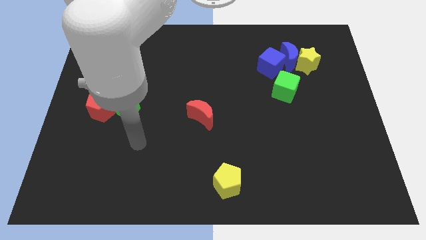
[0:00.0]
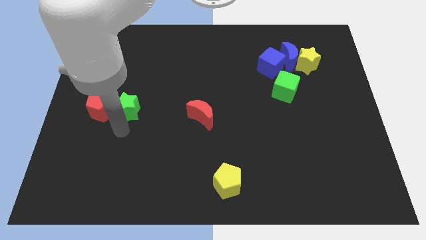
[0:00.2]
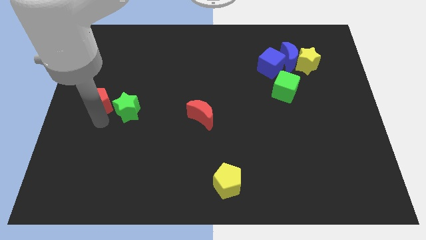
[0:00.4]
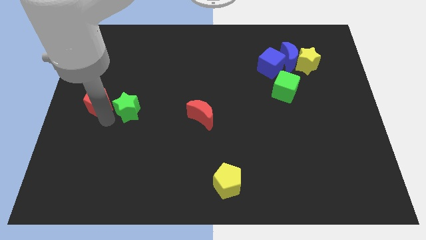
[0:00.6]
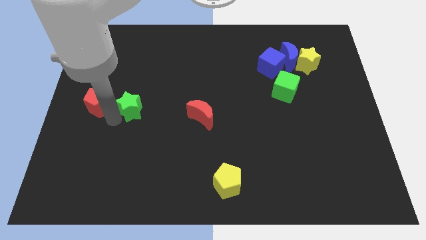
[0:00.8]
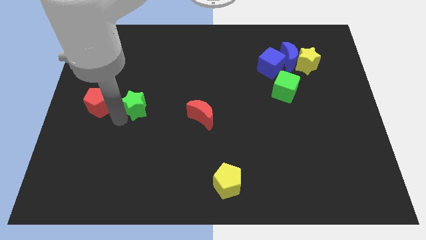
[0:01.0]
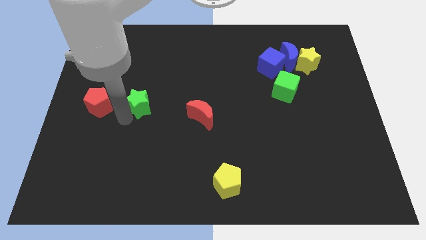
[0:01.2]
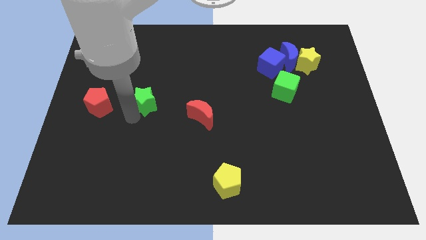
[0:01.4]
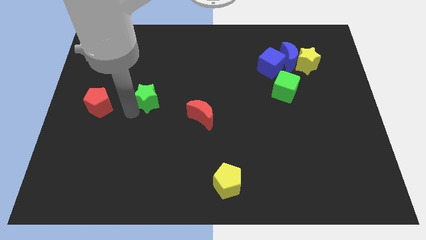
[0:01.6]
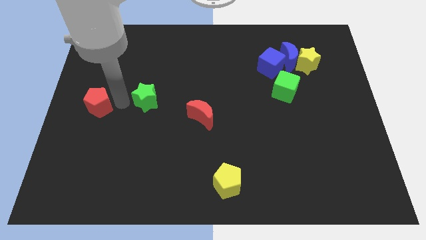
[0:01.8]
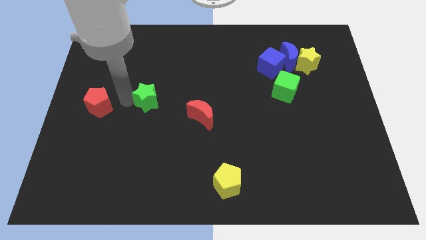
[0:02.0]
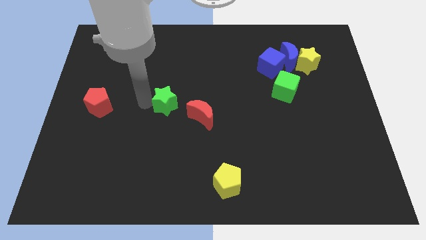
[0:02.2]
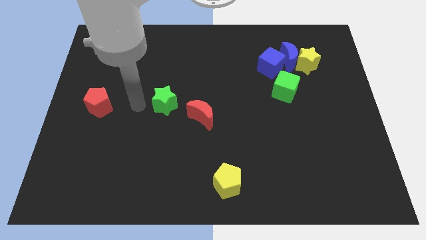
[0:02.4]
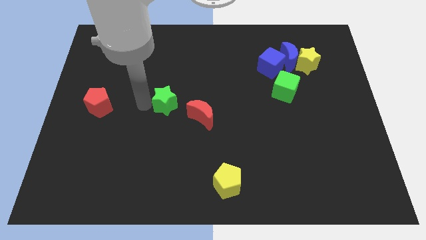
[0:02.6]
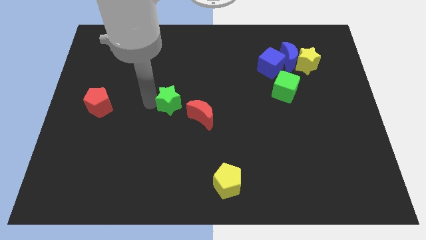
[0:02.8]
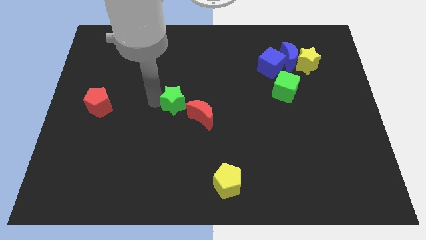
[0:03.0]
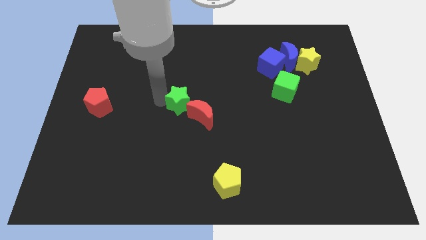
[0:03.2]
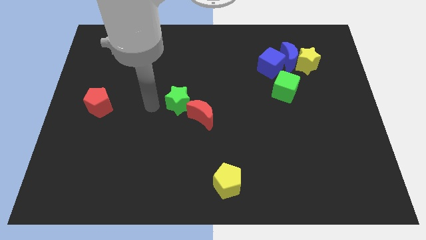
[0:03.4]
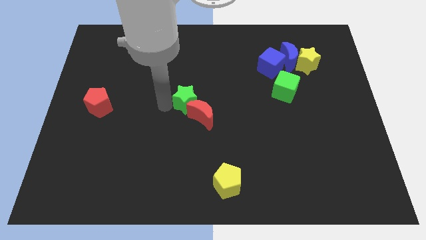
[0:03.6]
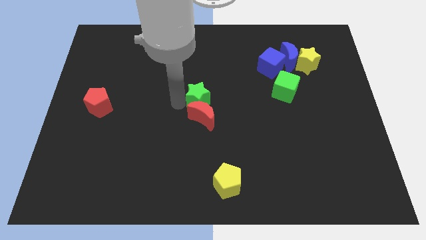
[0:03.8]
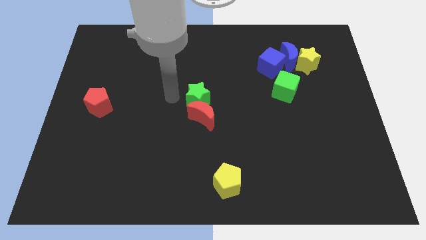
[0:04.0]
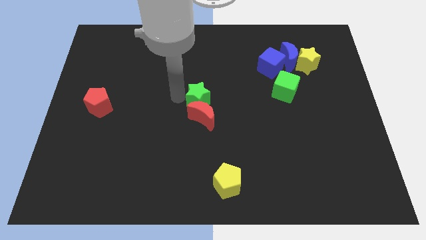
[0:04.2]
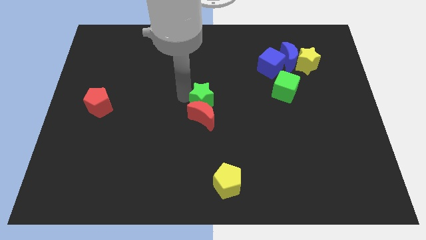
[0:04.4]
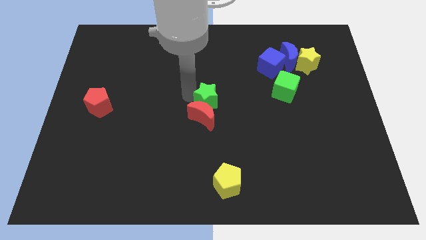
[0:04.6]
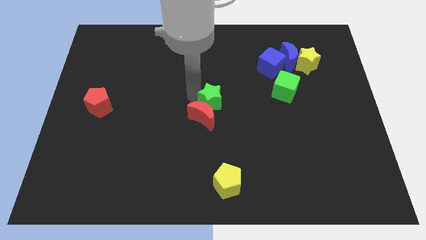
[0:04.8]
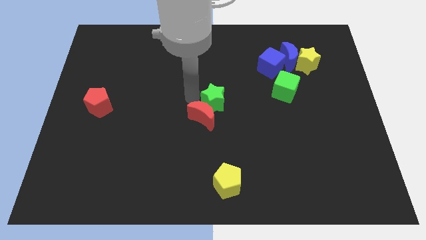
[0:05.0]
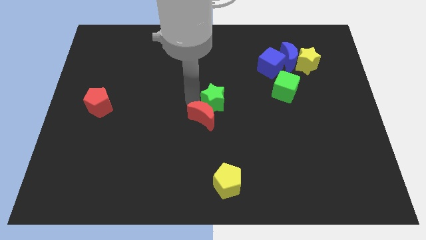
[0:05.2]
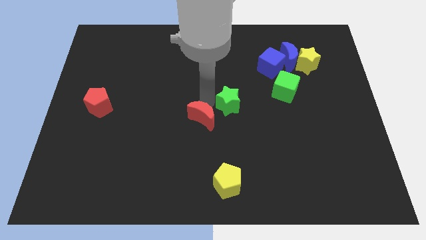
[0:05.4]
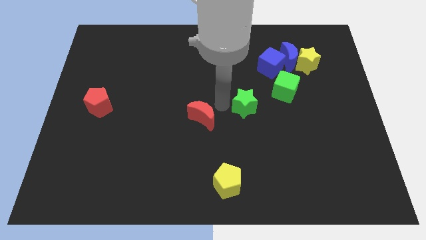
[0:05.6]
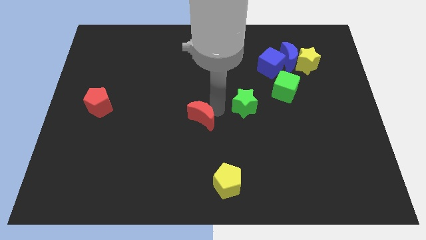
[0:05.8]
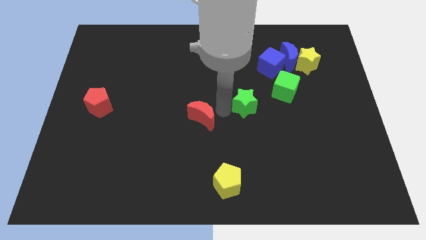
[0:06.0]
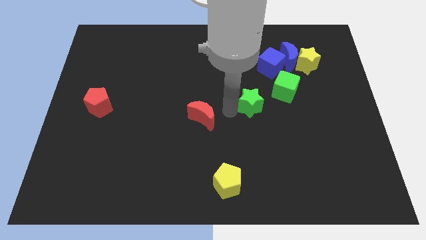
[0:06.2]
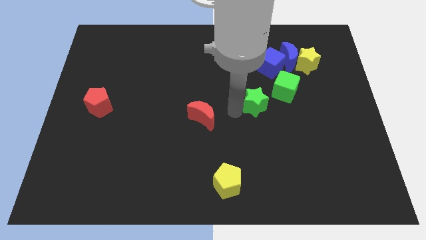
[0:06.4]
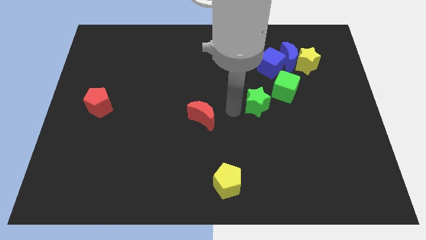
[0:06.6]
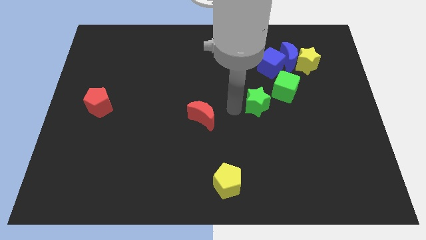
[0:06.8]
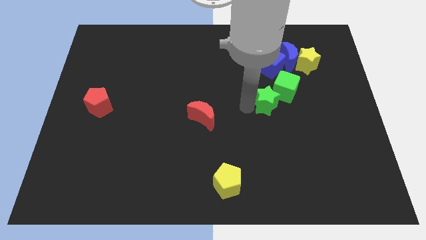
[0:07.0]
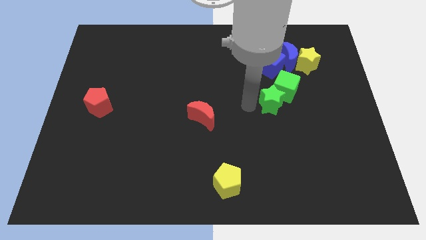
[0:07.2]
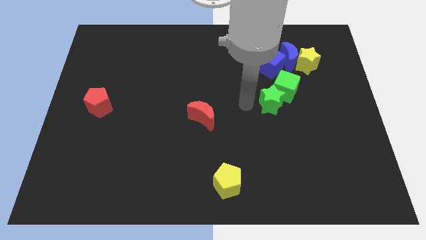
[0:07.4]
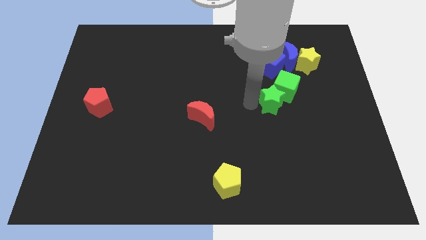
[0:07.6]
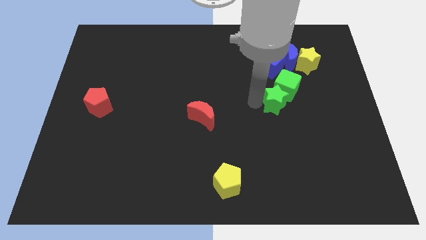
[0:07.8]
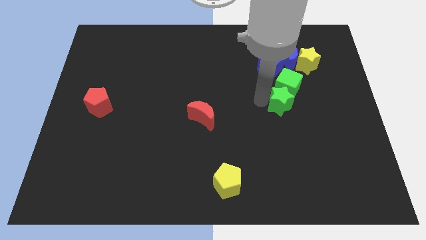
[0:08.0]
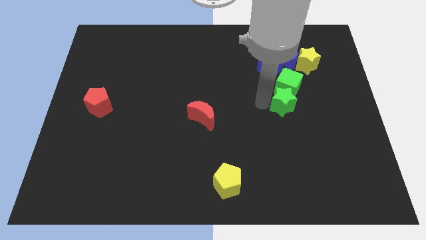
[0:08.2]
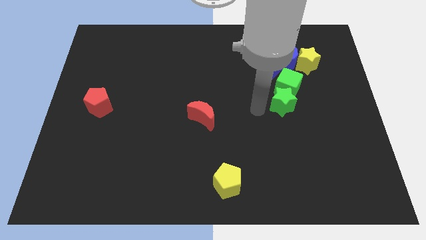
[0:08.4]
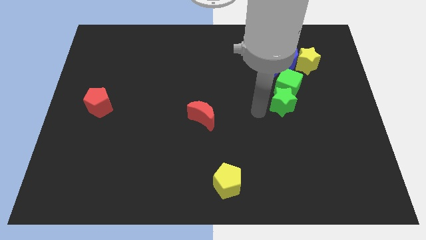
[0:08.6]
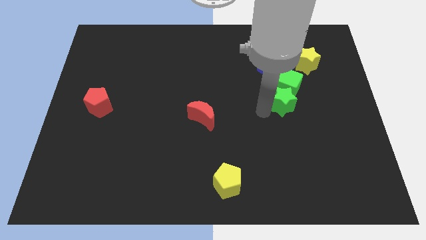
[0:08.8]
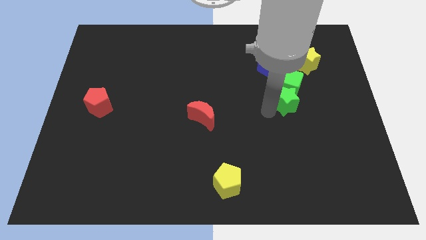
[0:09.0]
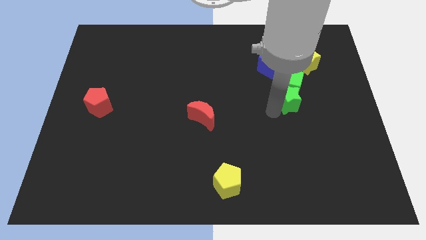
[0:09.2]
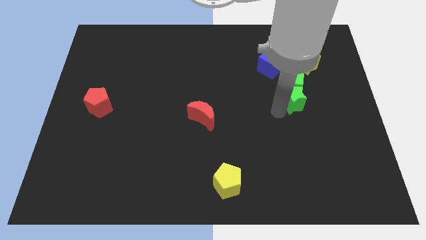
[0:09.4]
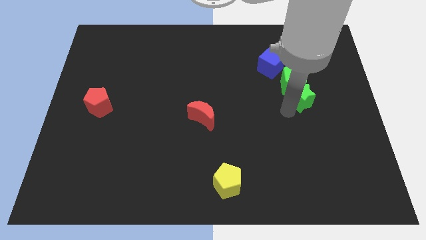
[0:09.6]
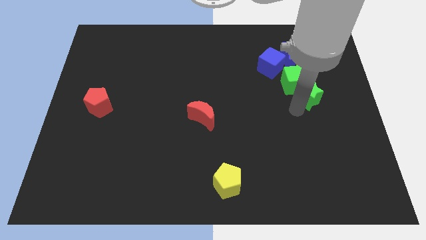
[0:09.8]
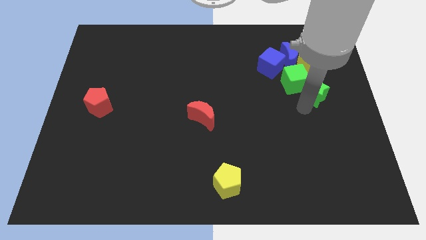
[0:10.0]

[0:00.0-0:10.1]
push the green star right of the green cube

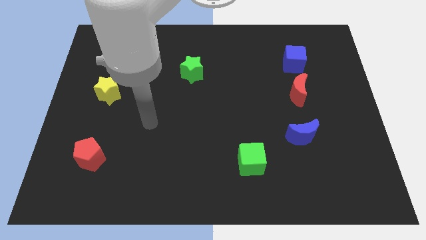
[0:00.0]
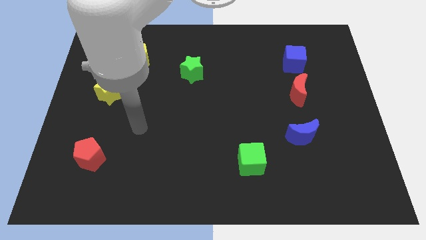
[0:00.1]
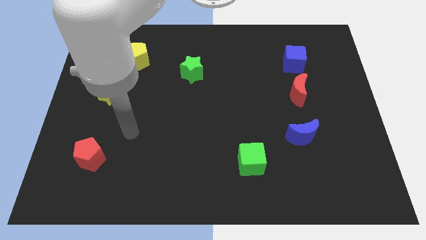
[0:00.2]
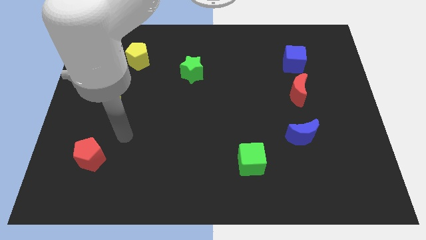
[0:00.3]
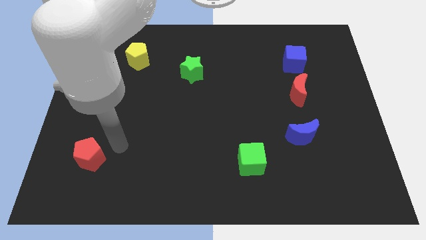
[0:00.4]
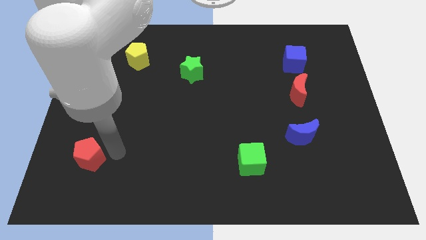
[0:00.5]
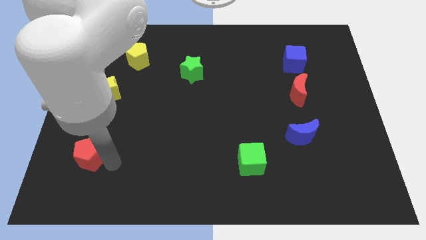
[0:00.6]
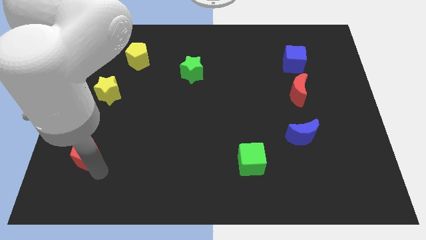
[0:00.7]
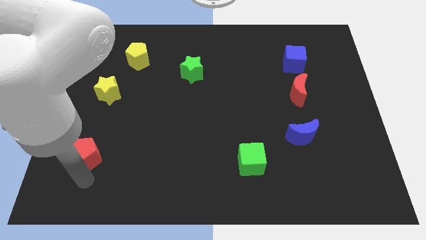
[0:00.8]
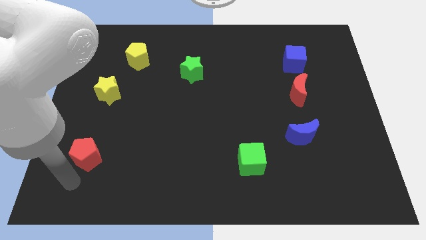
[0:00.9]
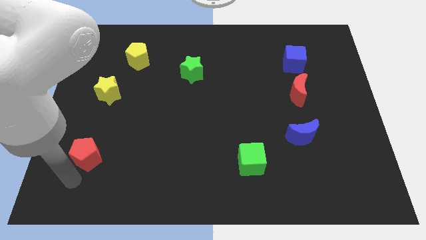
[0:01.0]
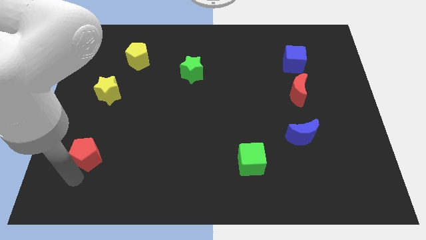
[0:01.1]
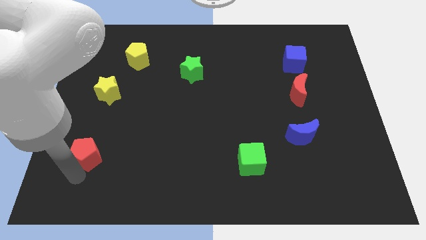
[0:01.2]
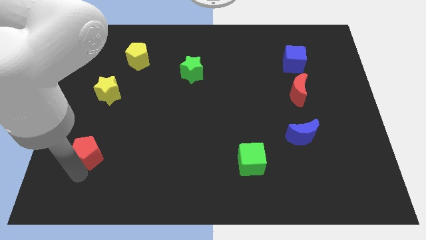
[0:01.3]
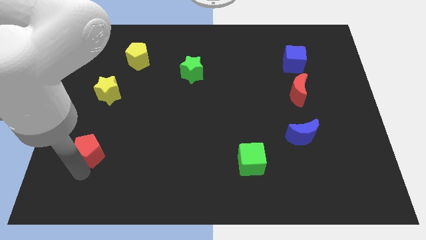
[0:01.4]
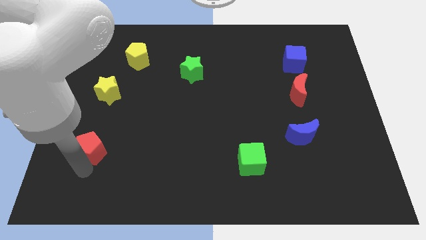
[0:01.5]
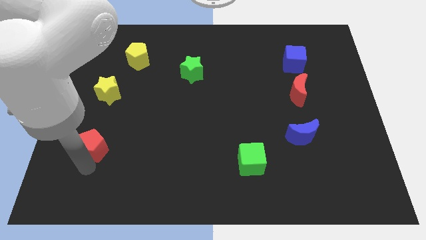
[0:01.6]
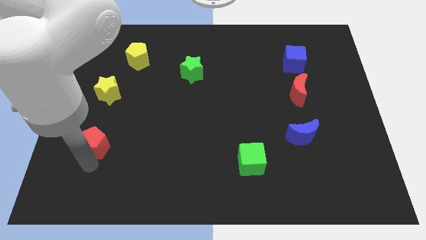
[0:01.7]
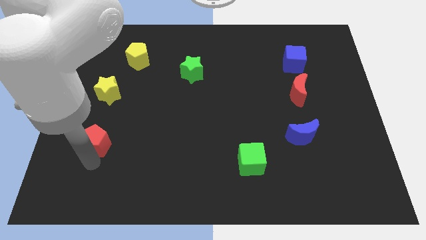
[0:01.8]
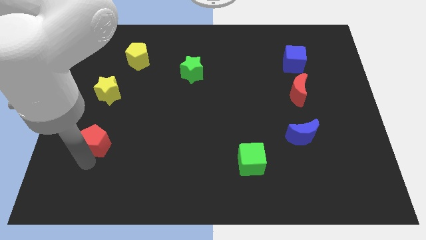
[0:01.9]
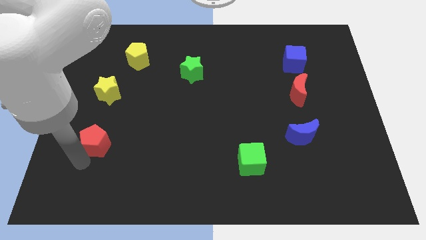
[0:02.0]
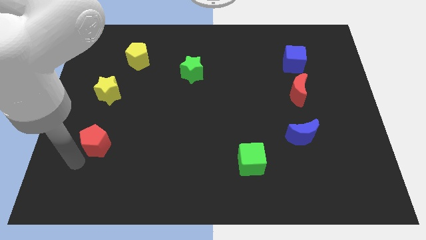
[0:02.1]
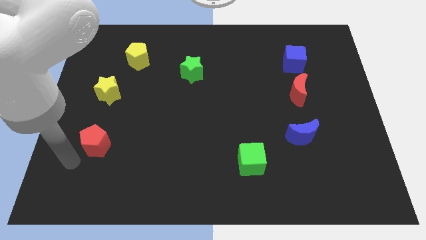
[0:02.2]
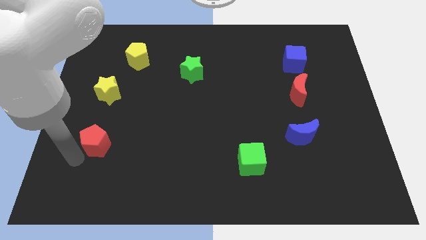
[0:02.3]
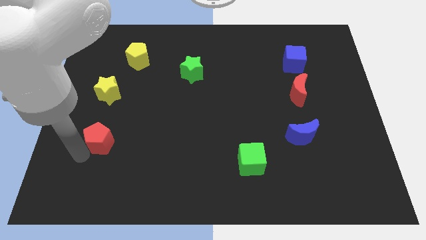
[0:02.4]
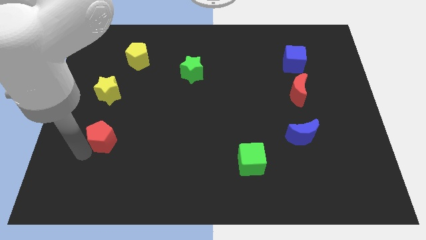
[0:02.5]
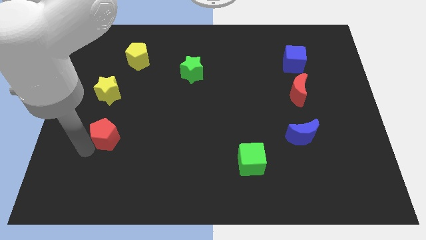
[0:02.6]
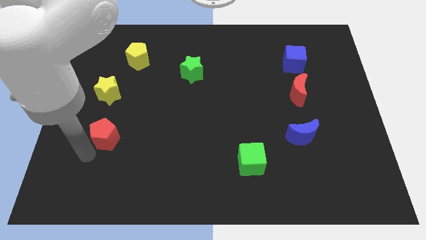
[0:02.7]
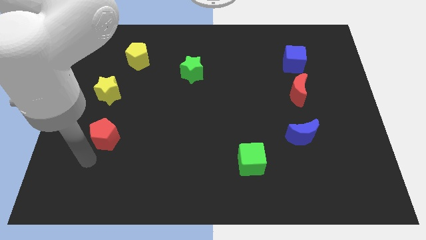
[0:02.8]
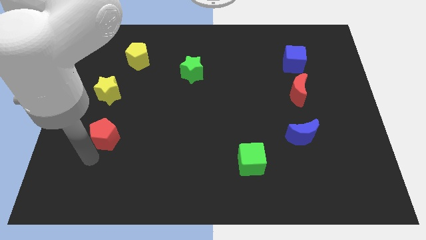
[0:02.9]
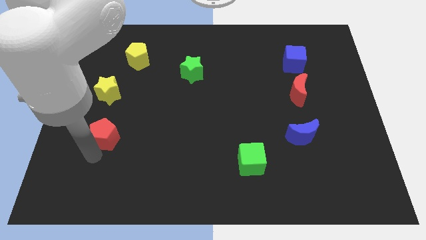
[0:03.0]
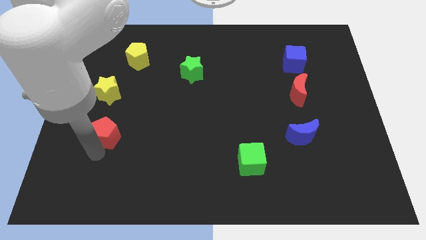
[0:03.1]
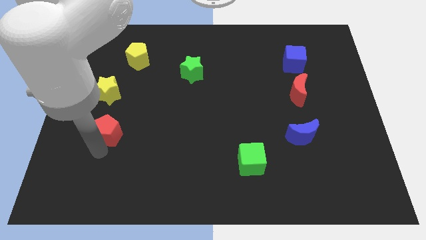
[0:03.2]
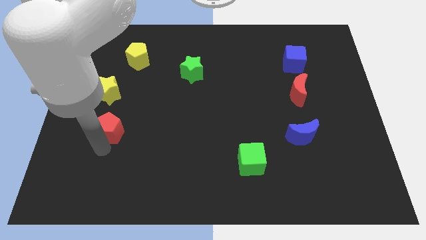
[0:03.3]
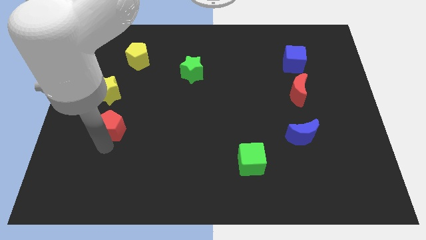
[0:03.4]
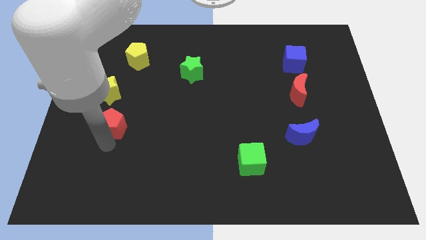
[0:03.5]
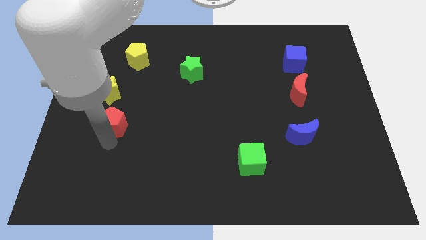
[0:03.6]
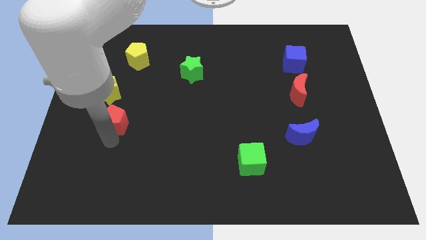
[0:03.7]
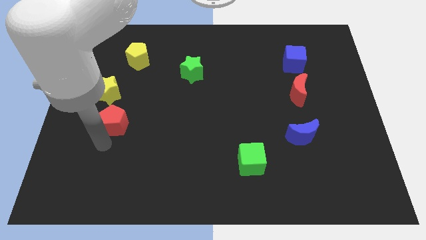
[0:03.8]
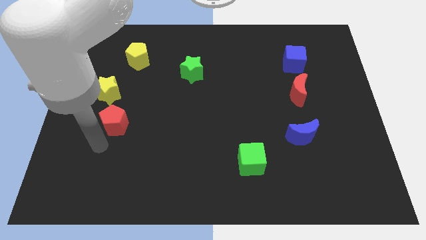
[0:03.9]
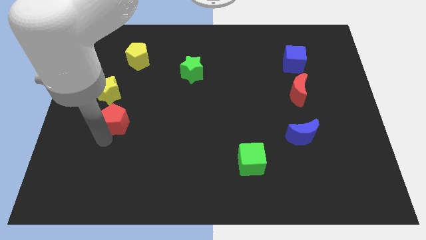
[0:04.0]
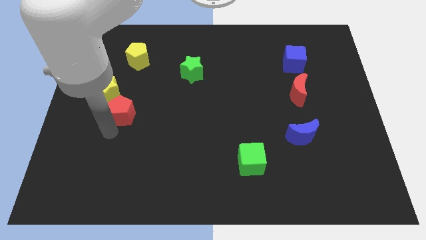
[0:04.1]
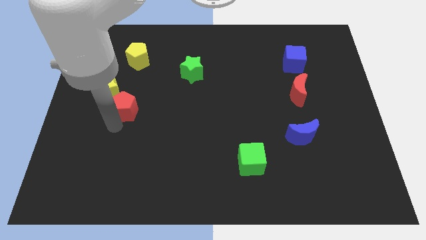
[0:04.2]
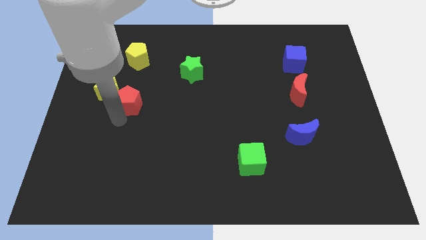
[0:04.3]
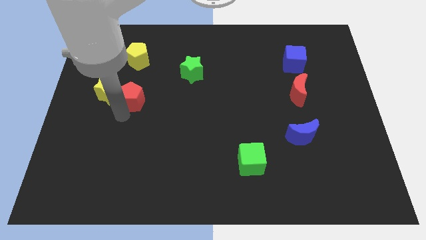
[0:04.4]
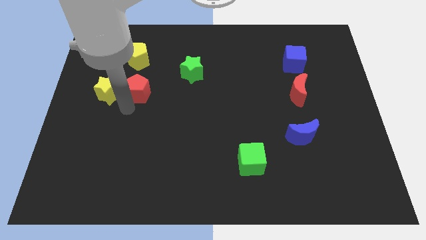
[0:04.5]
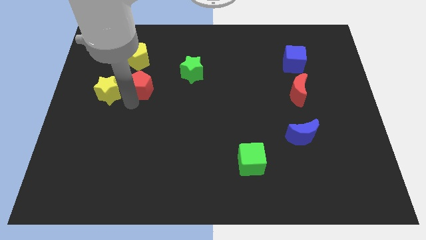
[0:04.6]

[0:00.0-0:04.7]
slide the red pentagon to the left side of the green star
